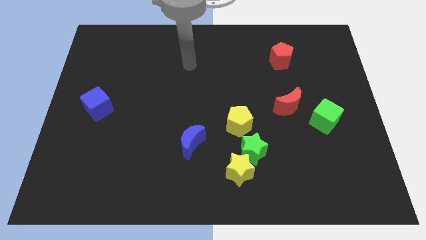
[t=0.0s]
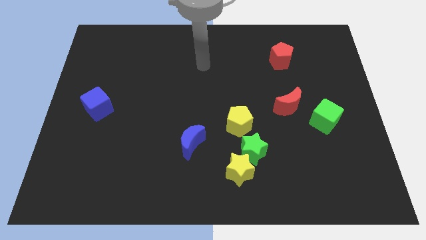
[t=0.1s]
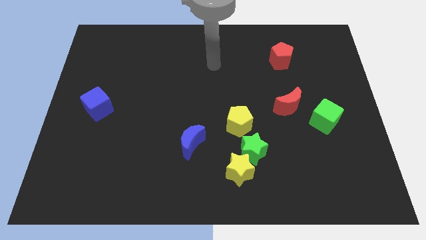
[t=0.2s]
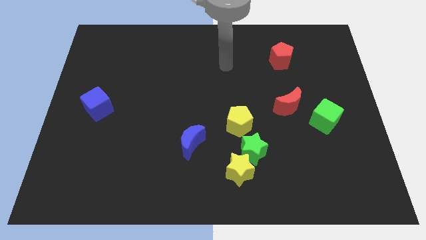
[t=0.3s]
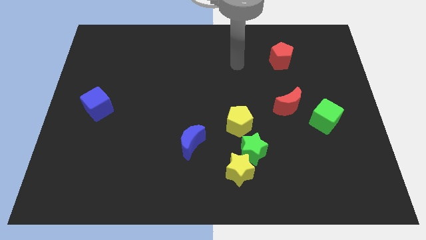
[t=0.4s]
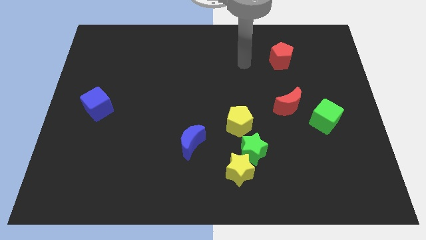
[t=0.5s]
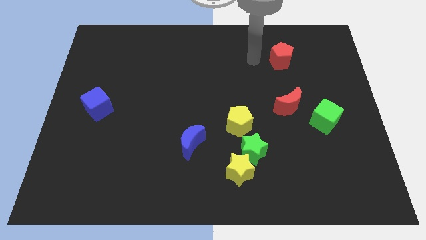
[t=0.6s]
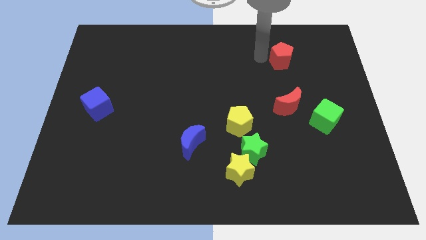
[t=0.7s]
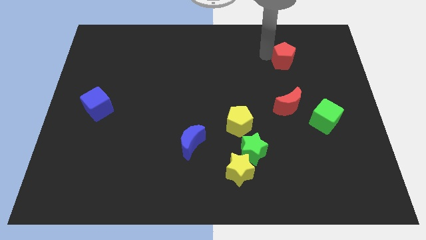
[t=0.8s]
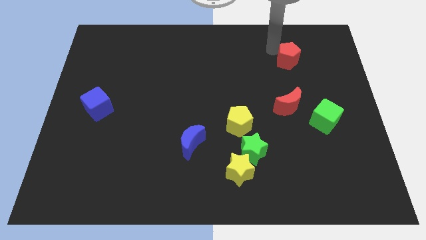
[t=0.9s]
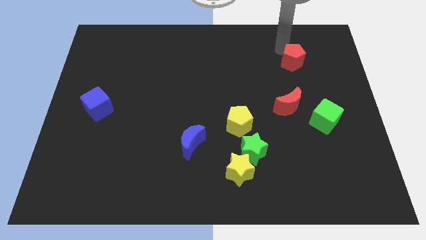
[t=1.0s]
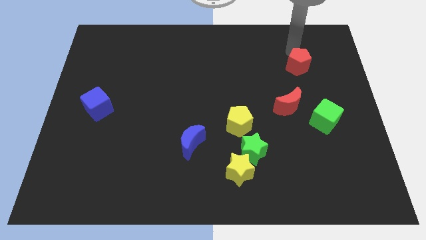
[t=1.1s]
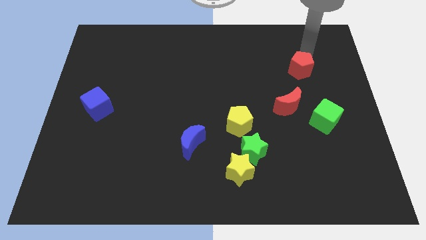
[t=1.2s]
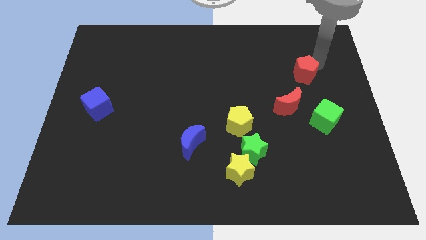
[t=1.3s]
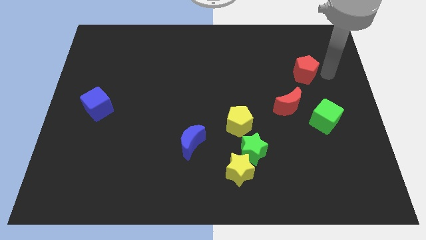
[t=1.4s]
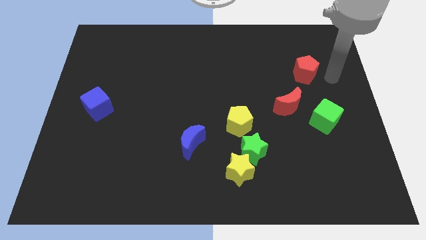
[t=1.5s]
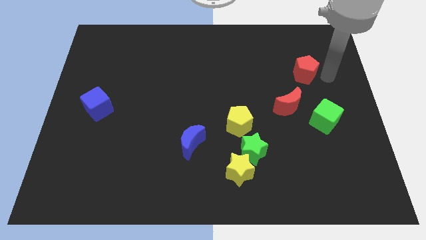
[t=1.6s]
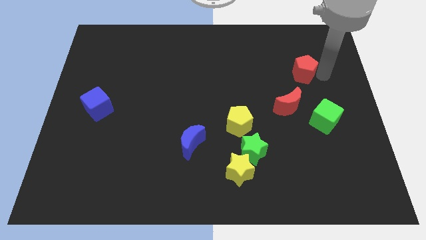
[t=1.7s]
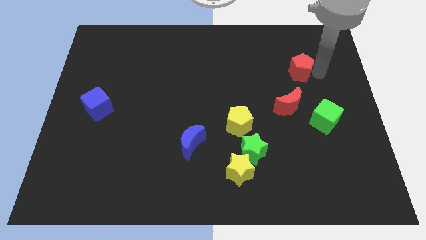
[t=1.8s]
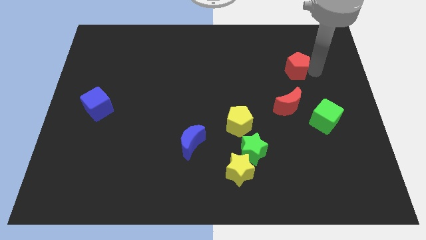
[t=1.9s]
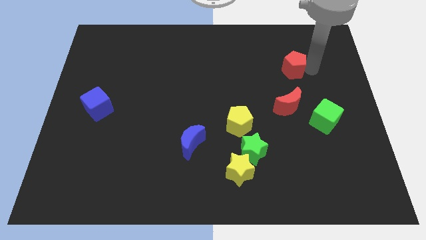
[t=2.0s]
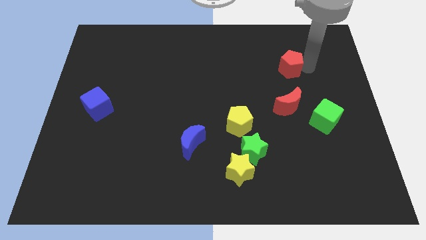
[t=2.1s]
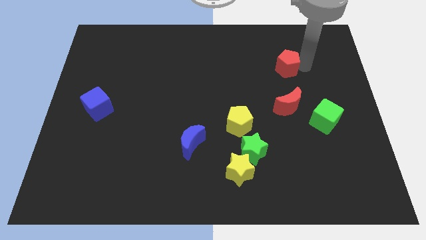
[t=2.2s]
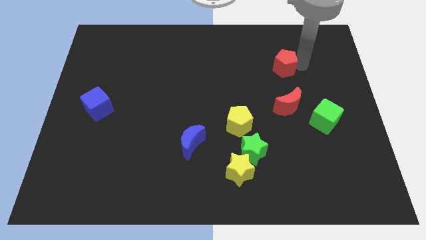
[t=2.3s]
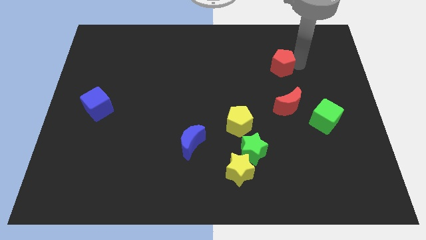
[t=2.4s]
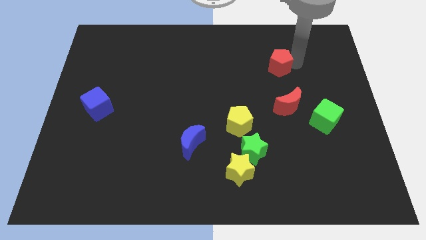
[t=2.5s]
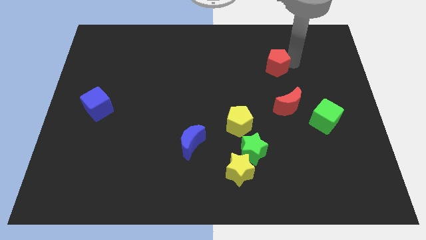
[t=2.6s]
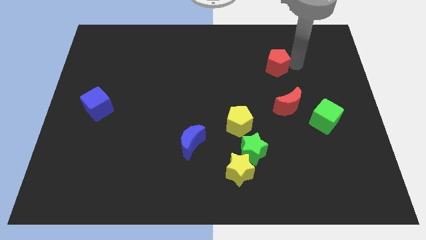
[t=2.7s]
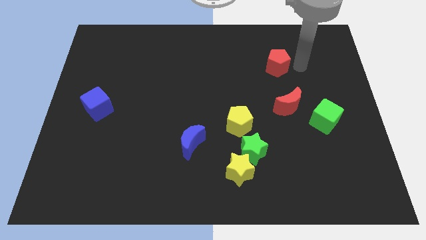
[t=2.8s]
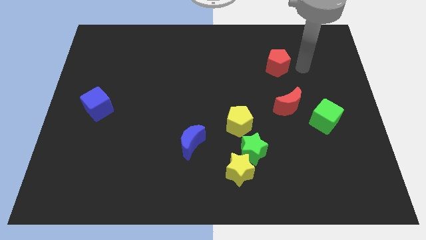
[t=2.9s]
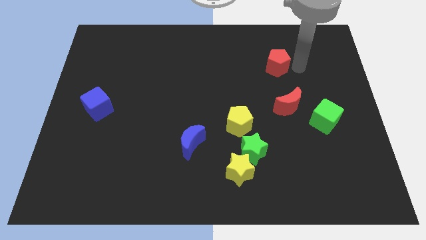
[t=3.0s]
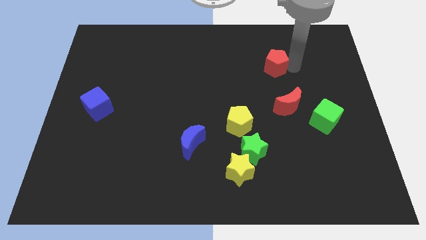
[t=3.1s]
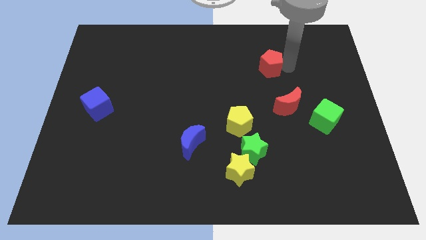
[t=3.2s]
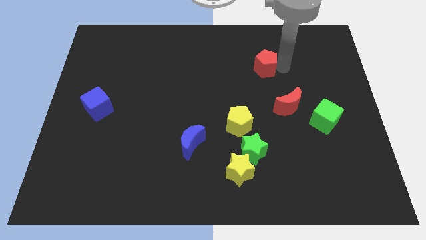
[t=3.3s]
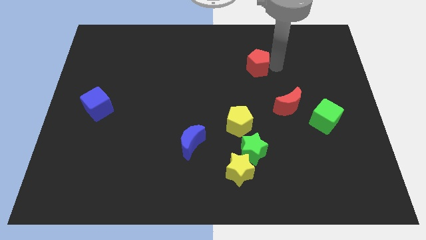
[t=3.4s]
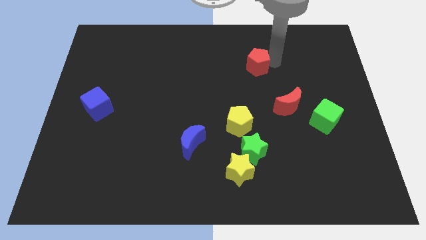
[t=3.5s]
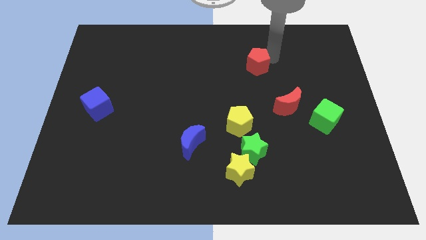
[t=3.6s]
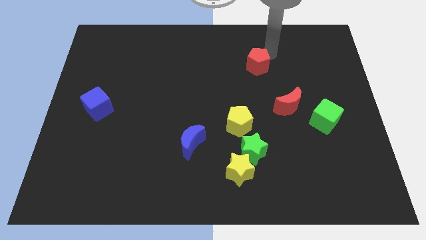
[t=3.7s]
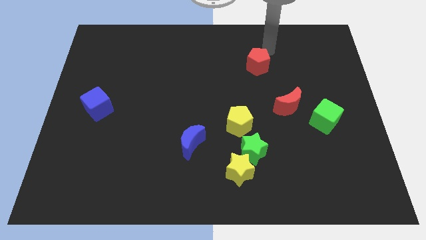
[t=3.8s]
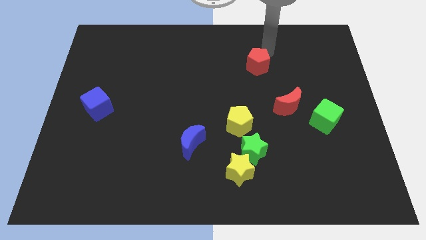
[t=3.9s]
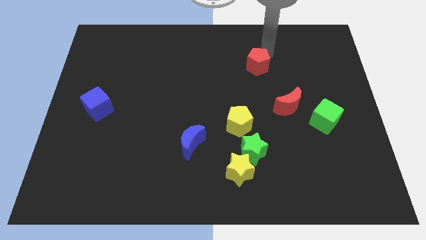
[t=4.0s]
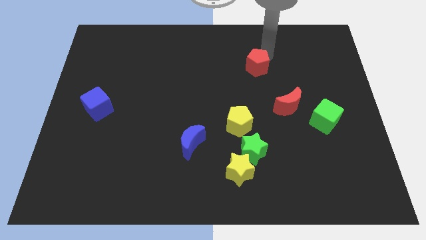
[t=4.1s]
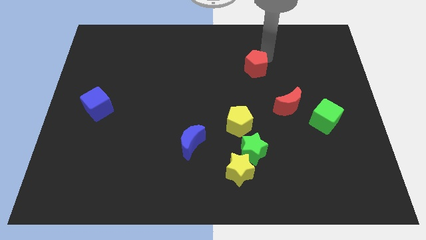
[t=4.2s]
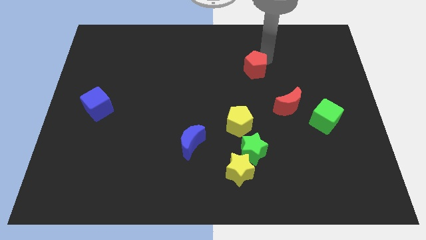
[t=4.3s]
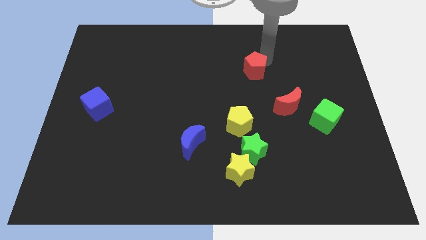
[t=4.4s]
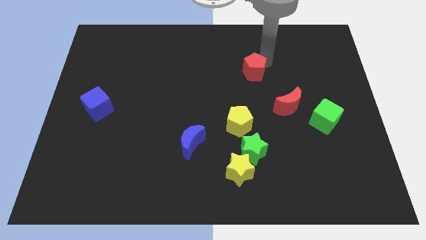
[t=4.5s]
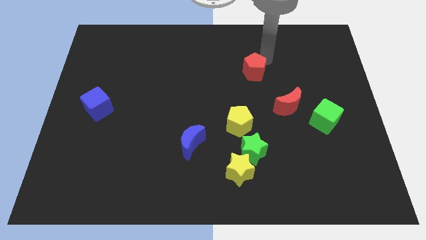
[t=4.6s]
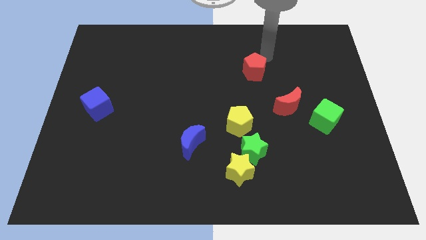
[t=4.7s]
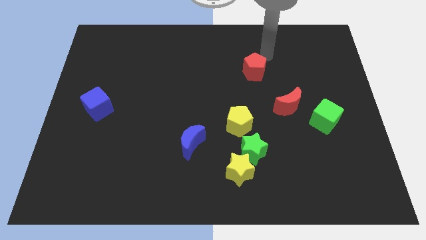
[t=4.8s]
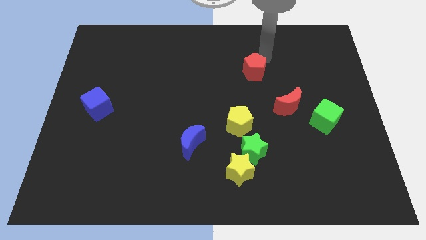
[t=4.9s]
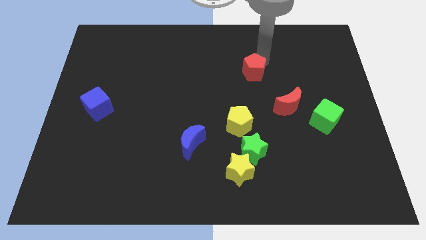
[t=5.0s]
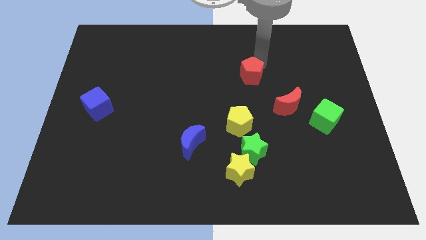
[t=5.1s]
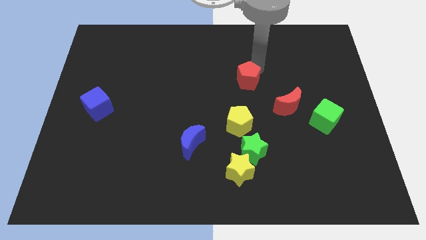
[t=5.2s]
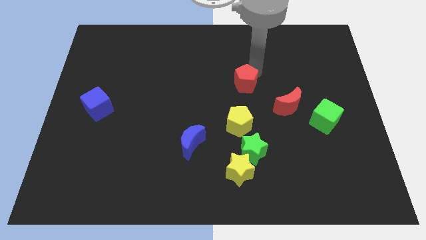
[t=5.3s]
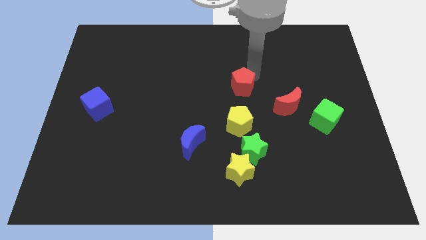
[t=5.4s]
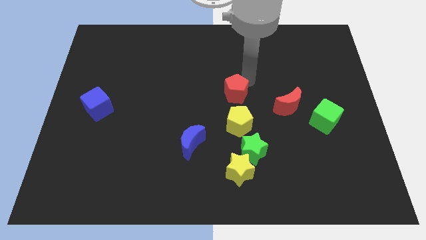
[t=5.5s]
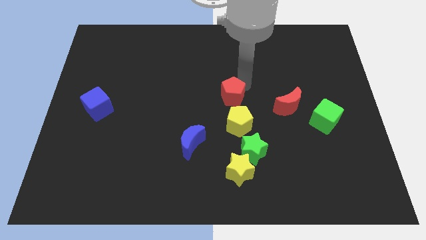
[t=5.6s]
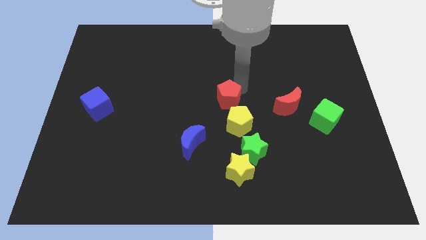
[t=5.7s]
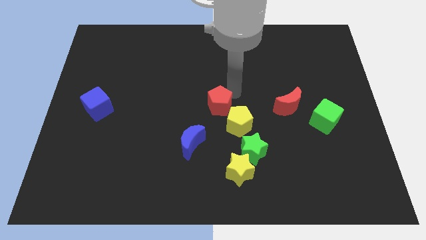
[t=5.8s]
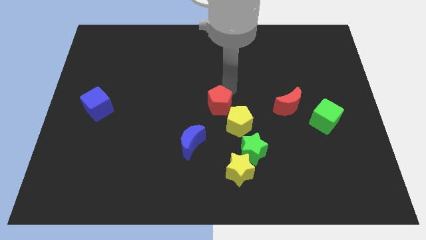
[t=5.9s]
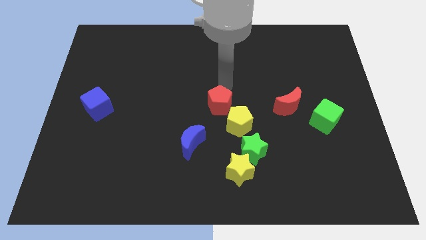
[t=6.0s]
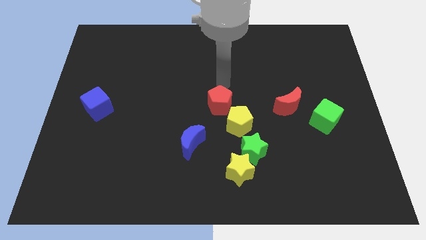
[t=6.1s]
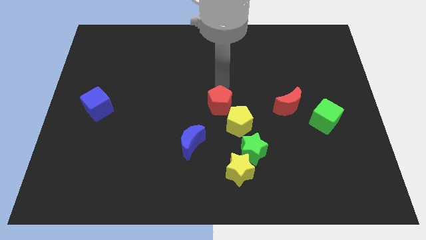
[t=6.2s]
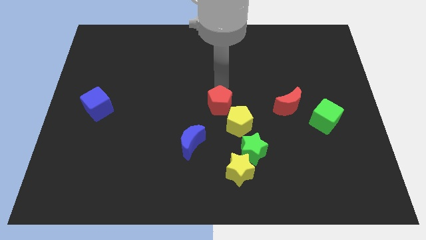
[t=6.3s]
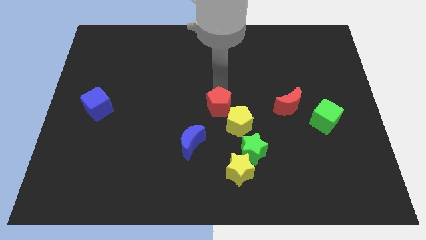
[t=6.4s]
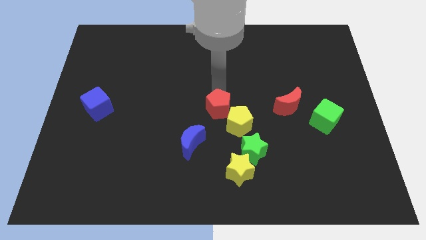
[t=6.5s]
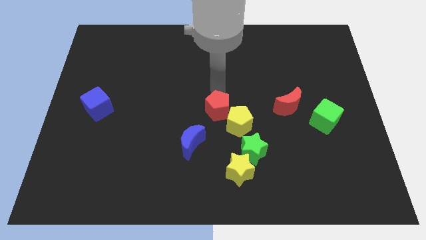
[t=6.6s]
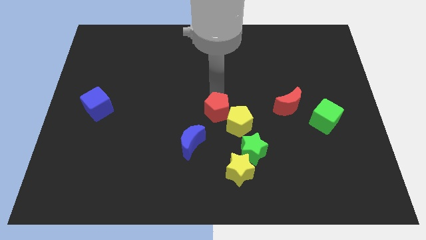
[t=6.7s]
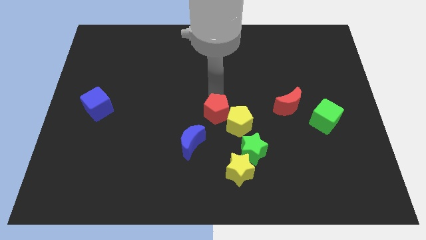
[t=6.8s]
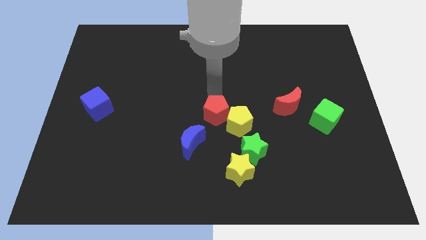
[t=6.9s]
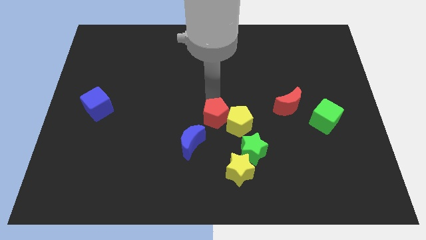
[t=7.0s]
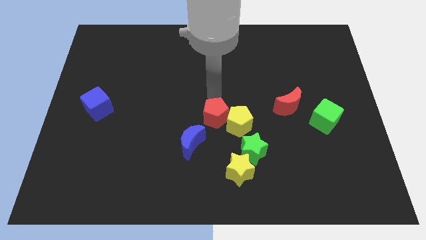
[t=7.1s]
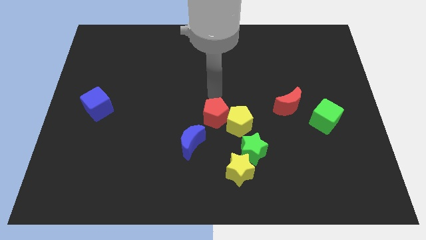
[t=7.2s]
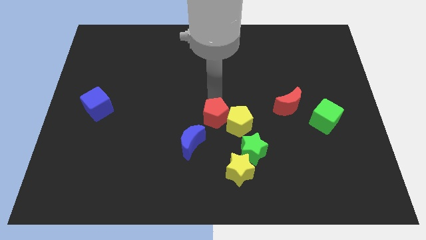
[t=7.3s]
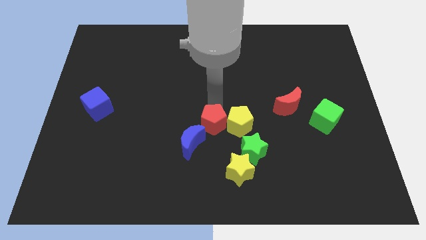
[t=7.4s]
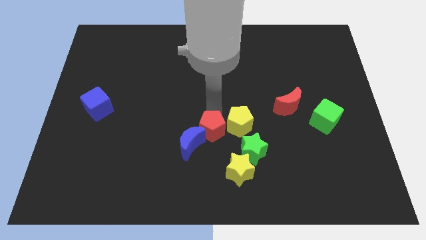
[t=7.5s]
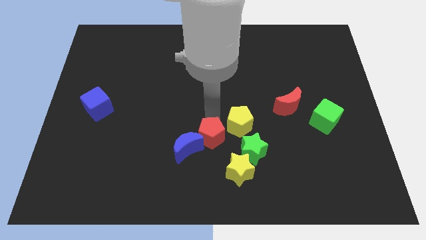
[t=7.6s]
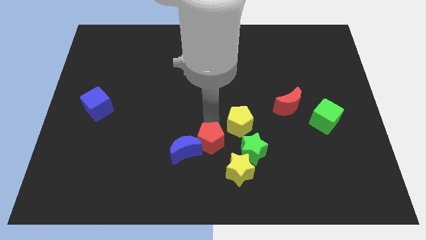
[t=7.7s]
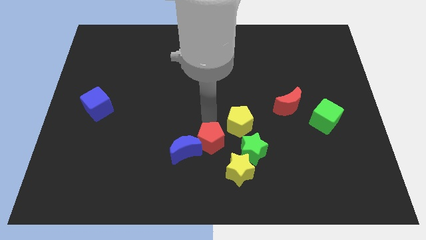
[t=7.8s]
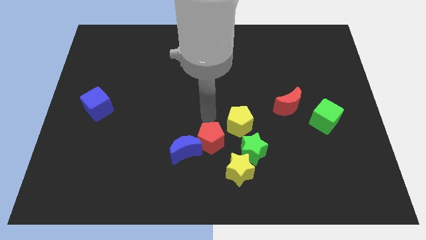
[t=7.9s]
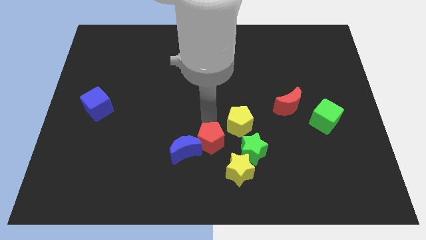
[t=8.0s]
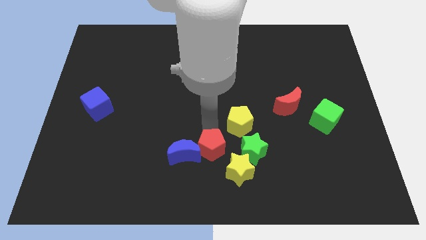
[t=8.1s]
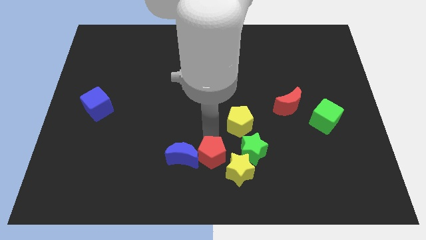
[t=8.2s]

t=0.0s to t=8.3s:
slide the red pentagon to the bottom
